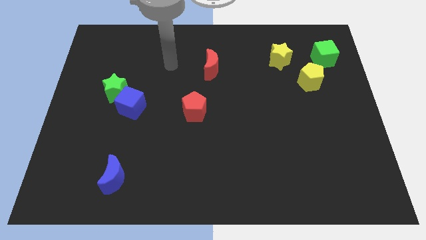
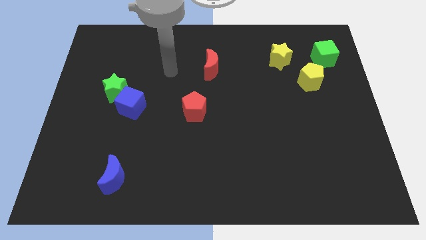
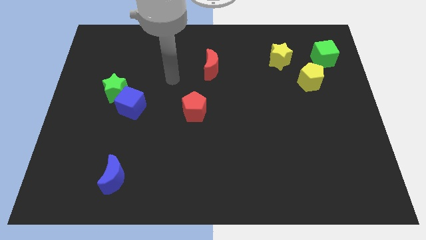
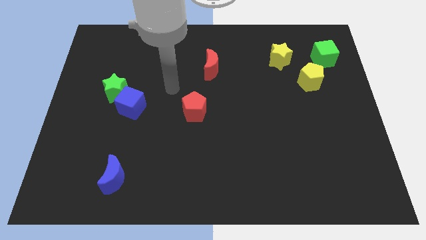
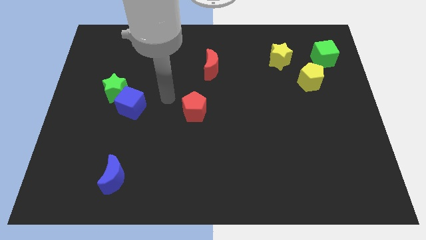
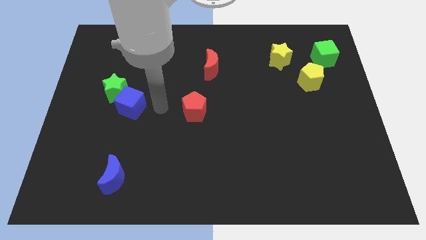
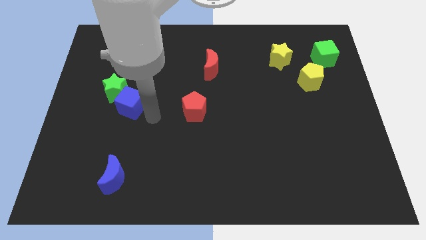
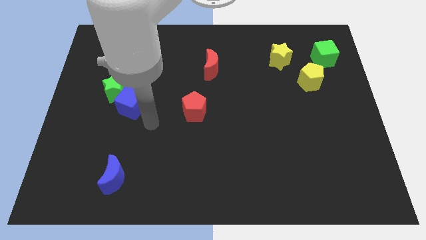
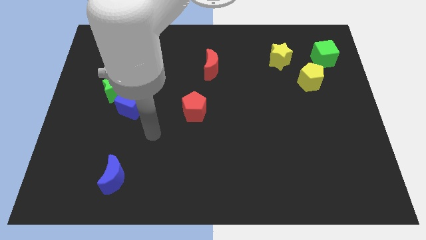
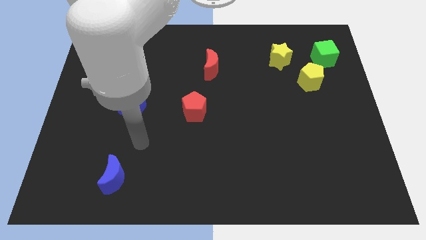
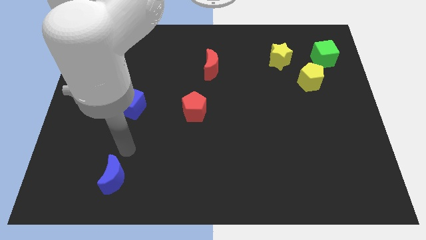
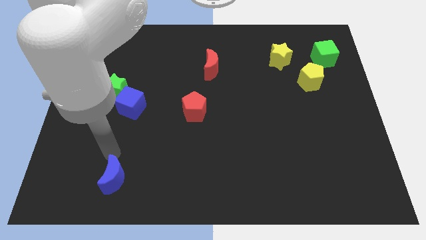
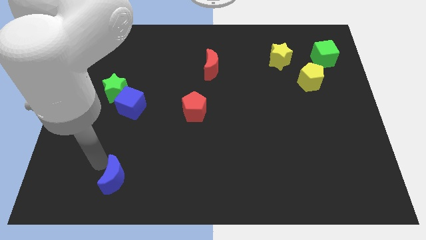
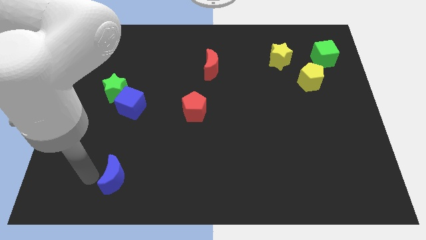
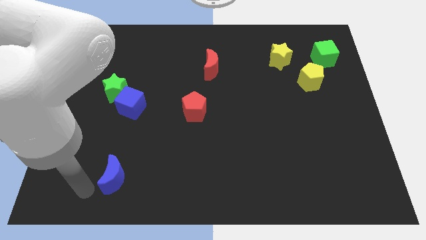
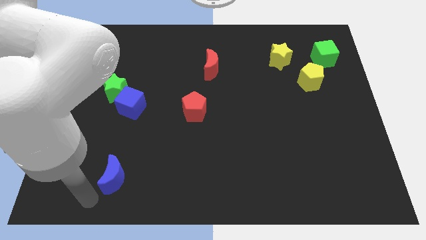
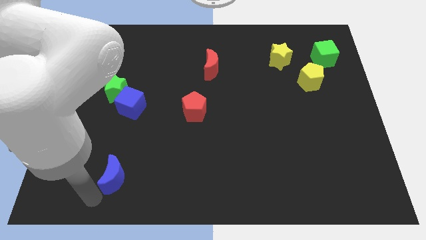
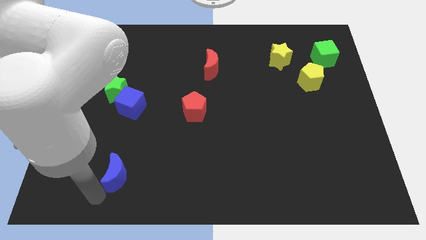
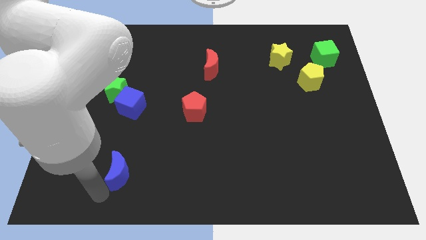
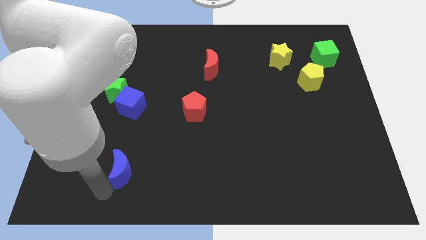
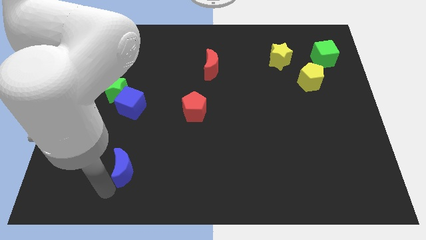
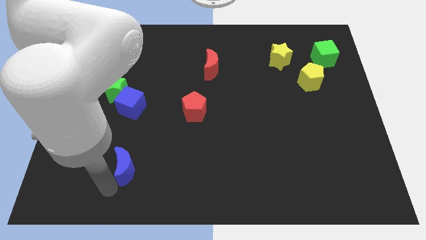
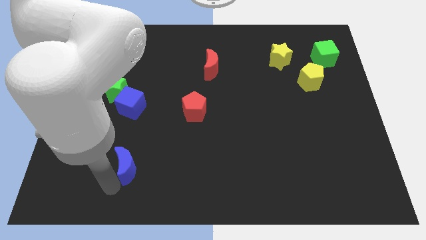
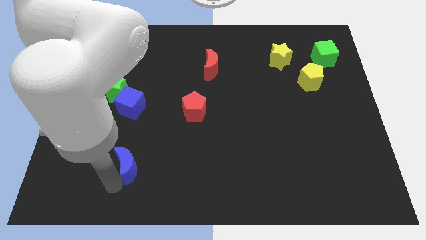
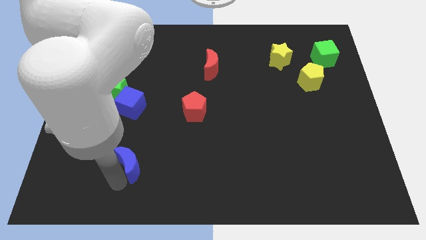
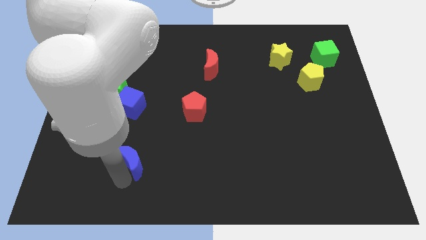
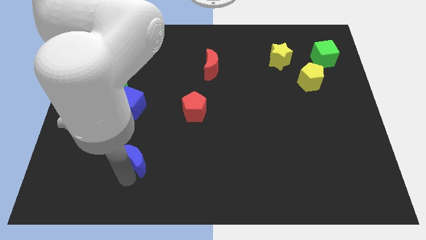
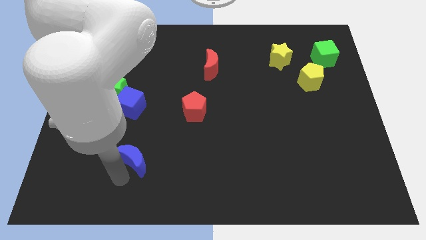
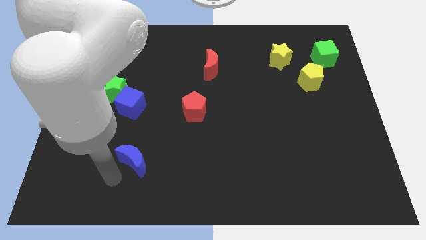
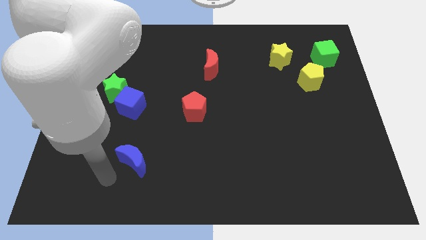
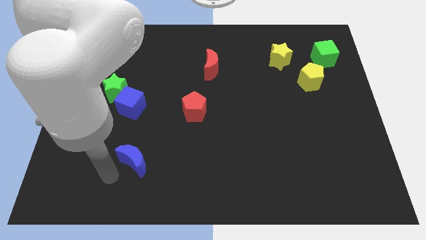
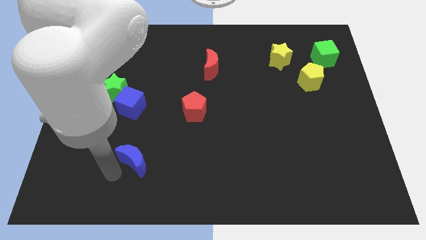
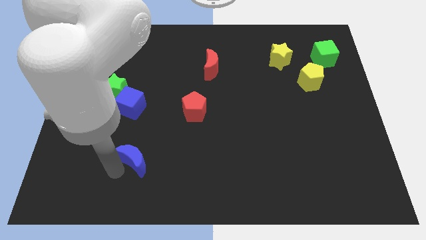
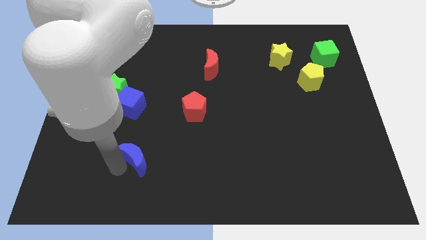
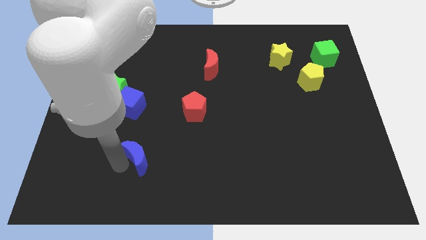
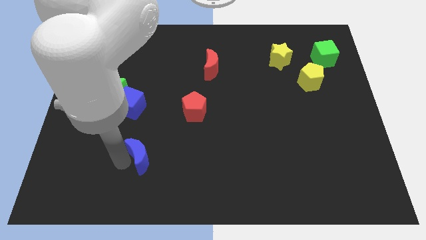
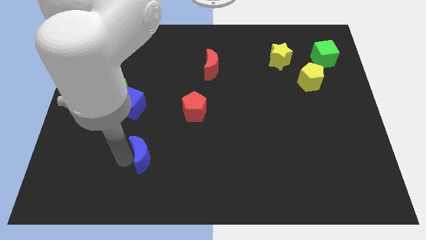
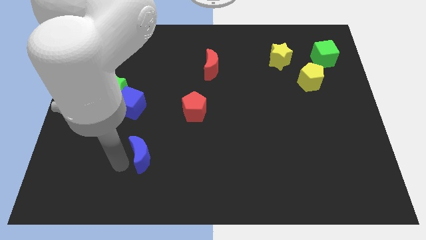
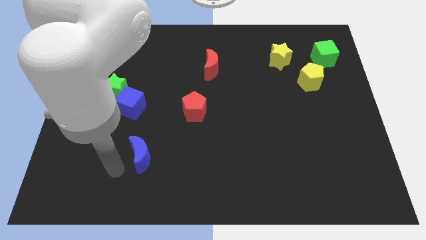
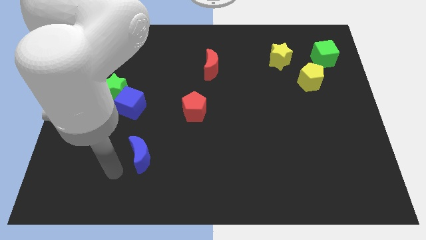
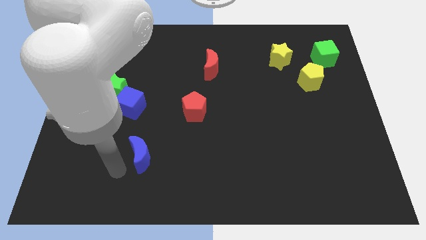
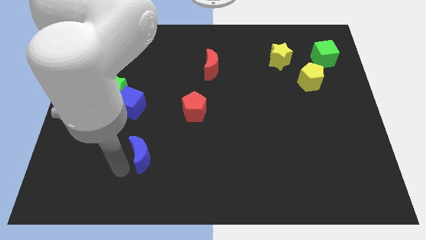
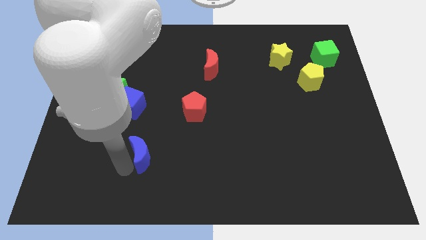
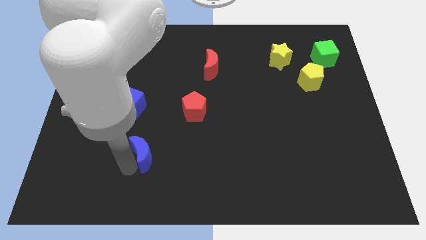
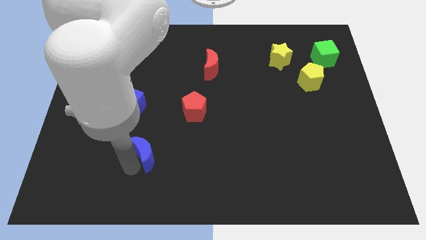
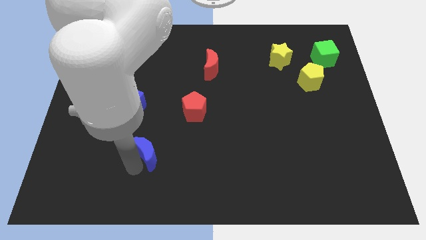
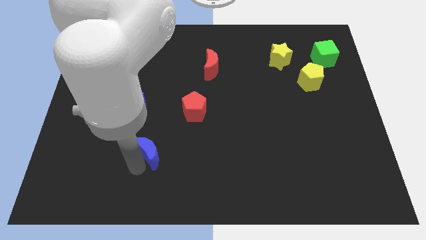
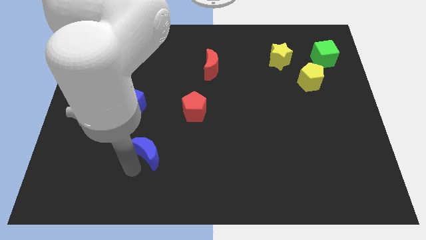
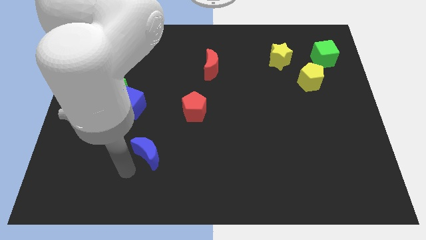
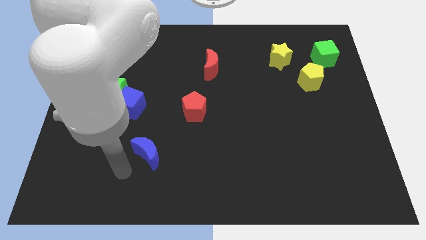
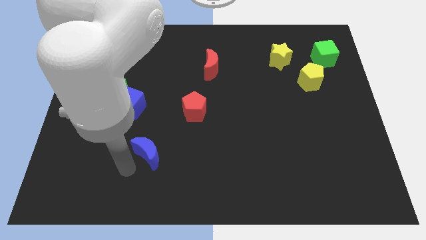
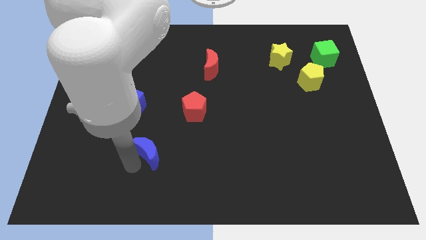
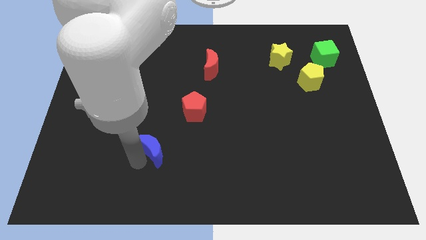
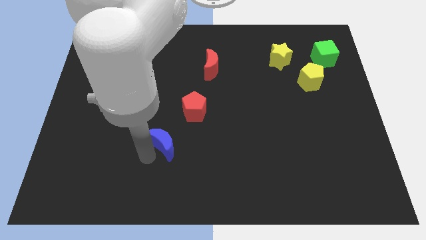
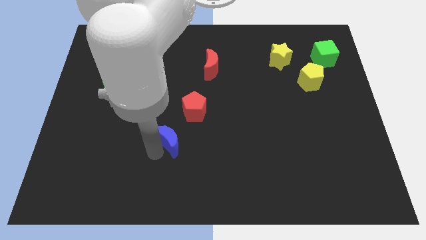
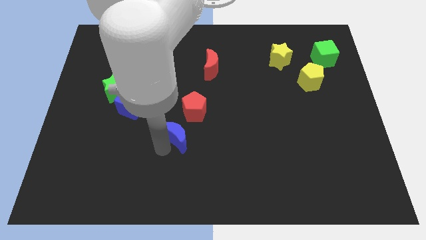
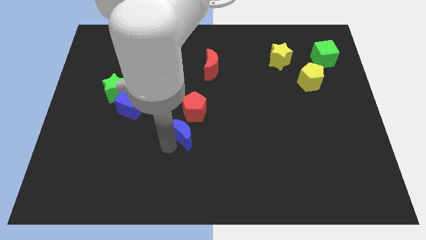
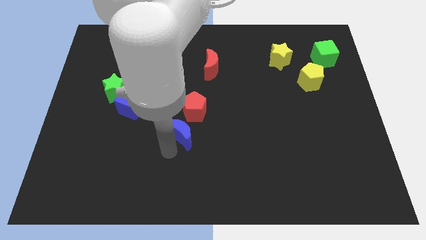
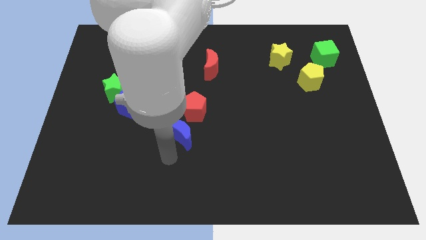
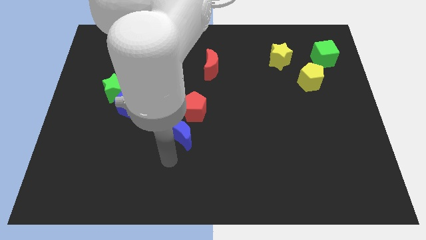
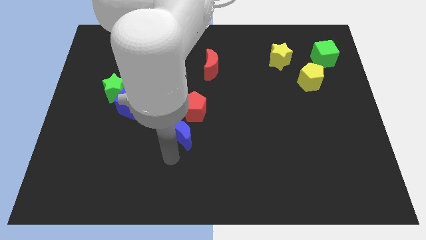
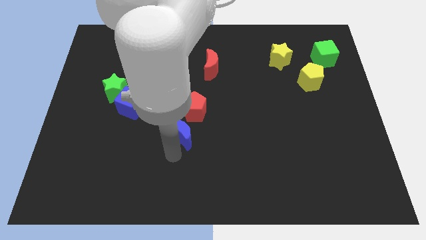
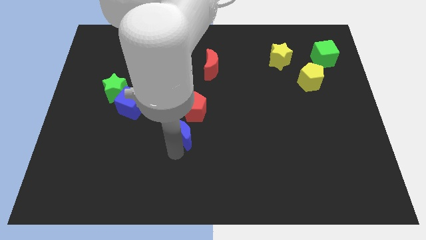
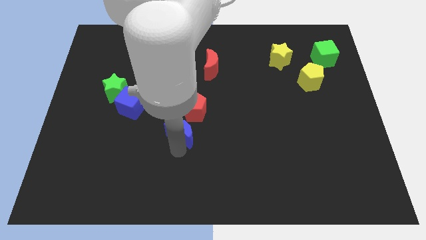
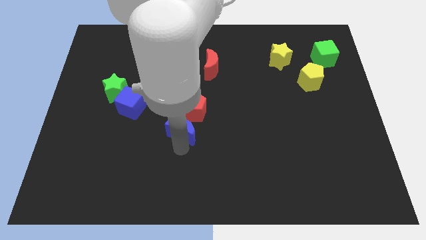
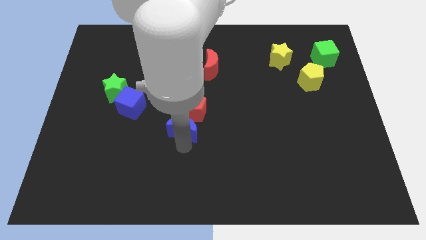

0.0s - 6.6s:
slide the blue moon close to the red pentagon

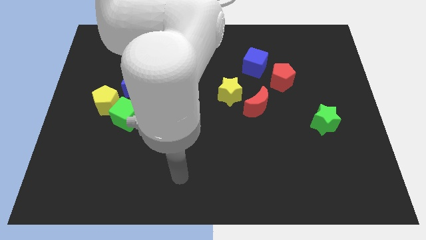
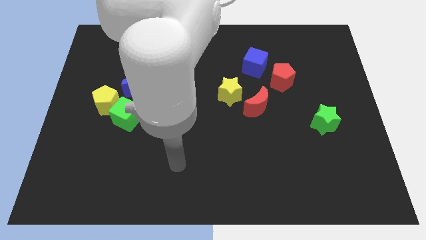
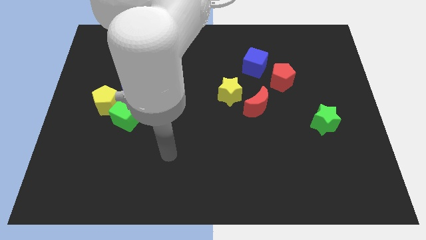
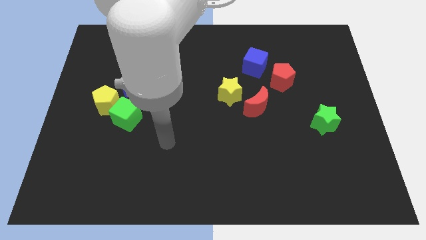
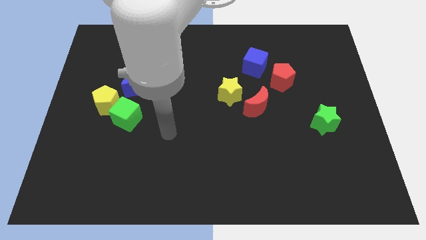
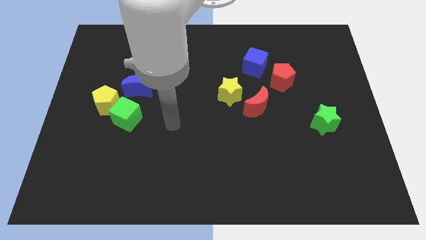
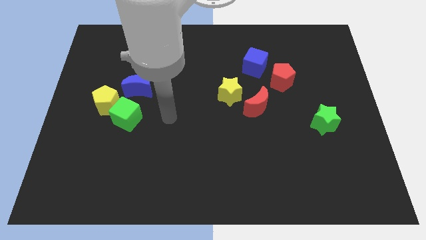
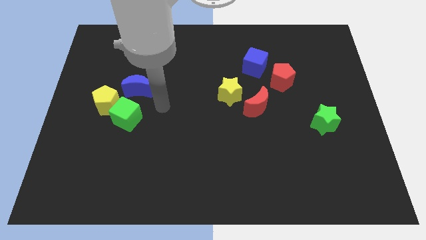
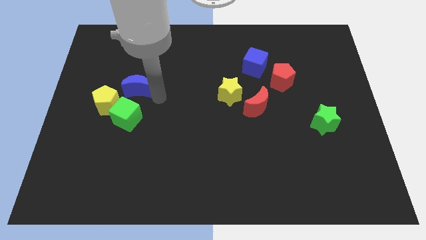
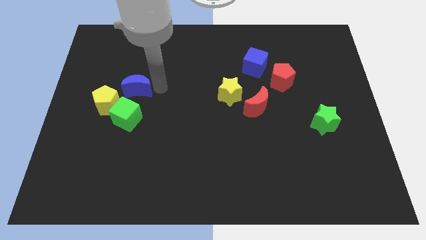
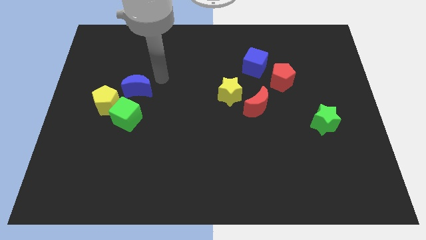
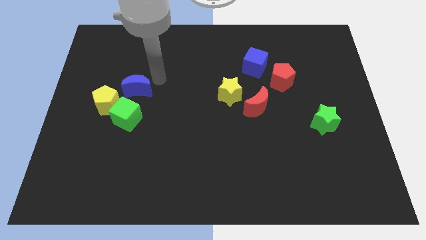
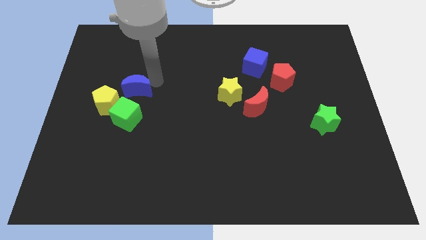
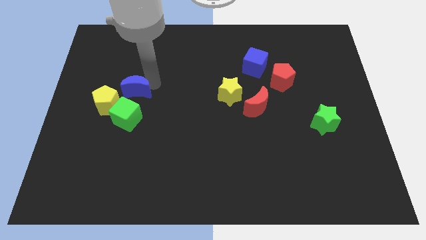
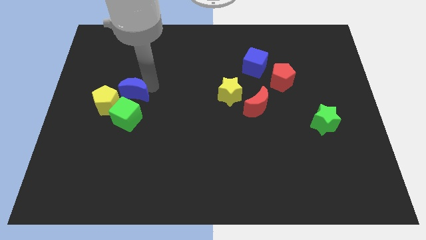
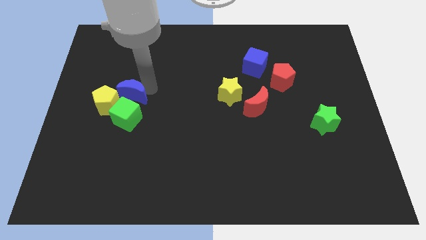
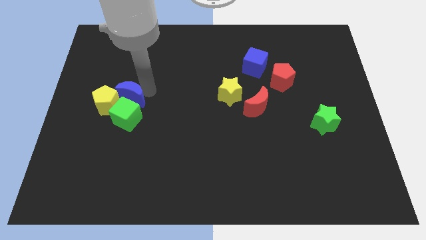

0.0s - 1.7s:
slide the blue moon next to the yellow pentagon
